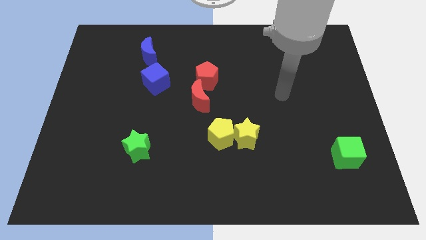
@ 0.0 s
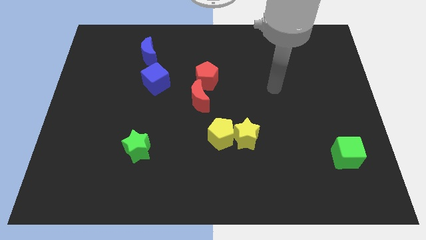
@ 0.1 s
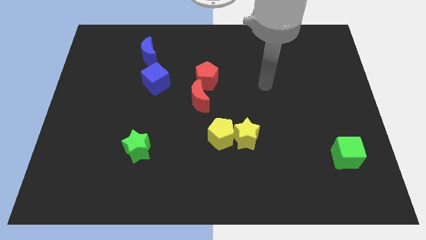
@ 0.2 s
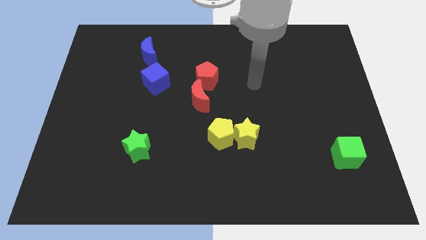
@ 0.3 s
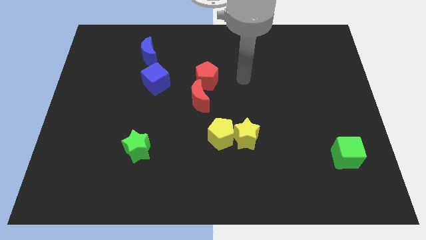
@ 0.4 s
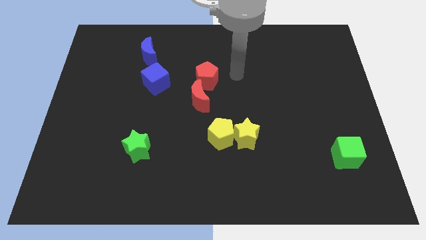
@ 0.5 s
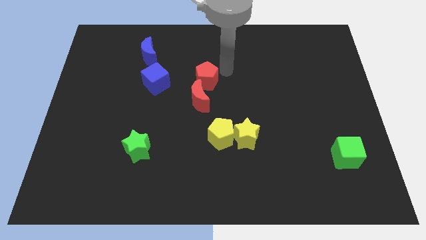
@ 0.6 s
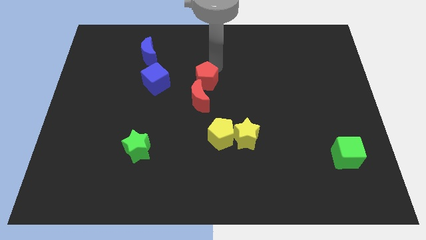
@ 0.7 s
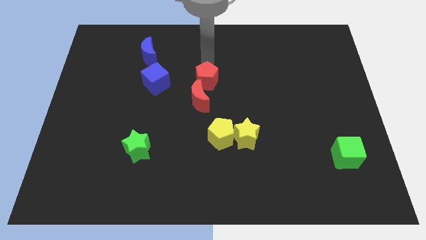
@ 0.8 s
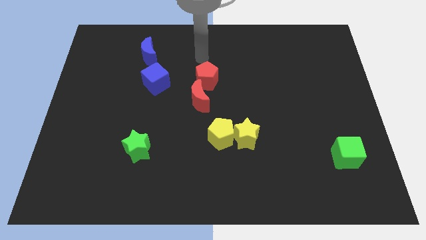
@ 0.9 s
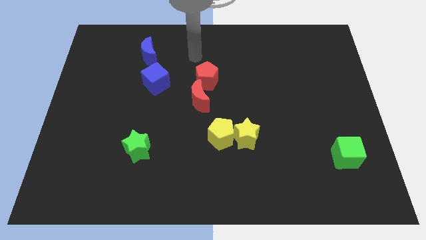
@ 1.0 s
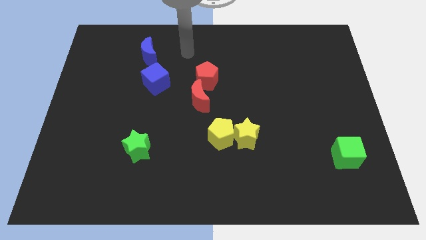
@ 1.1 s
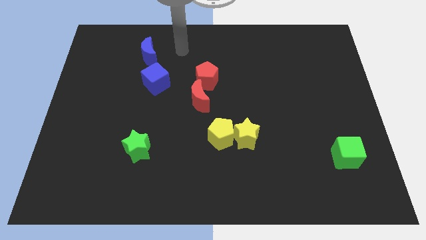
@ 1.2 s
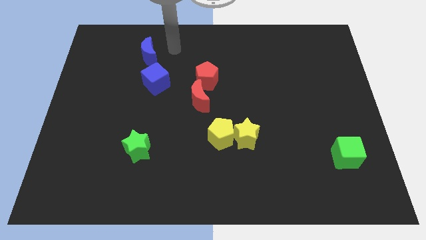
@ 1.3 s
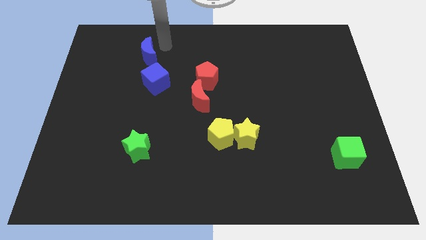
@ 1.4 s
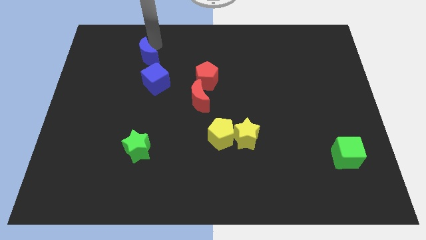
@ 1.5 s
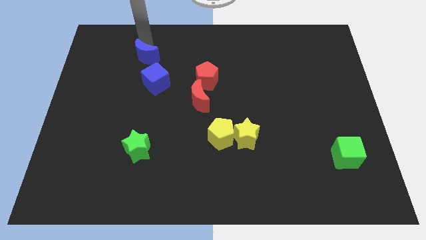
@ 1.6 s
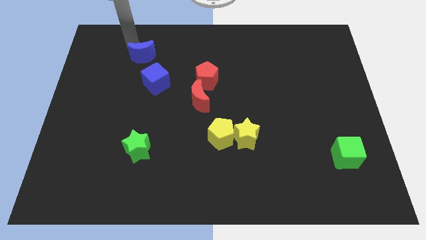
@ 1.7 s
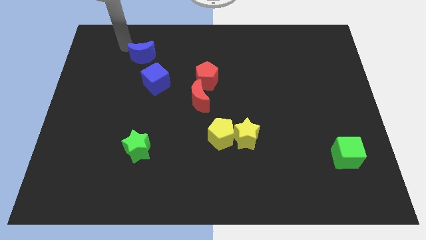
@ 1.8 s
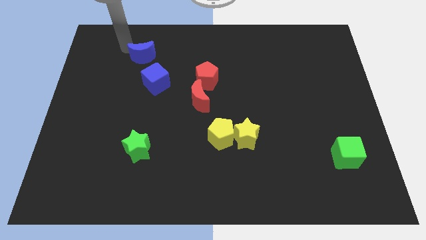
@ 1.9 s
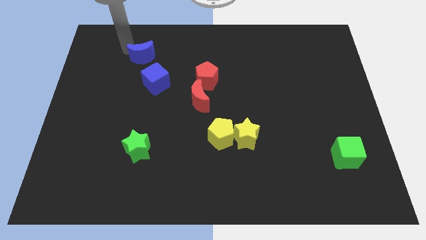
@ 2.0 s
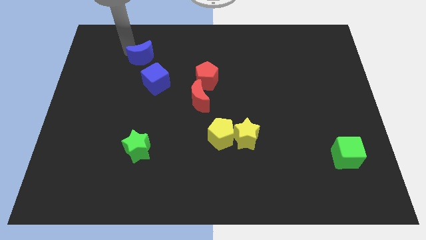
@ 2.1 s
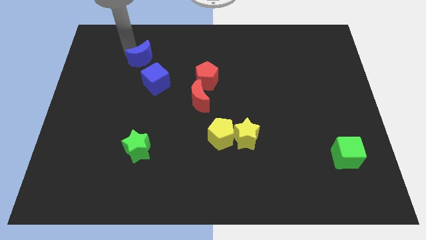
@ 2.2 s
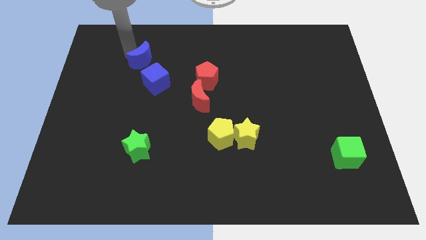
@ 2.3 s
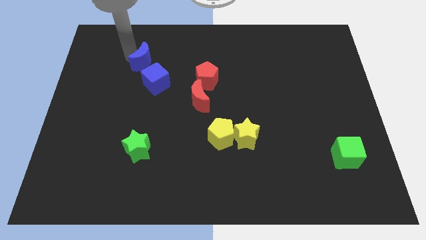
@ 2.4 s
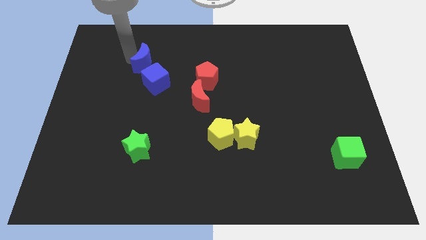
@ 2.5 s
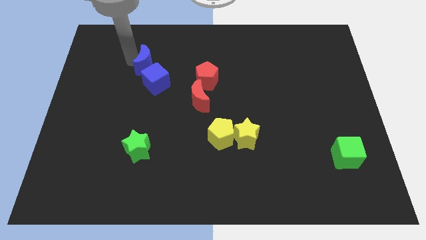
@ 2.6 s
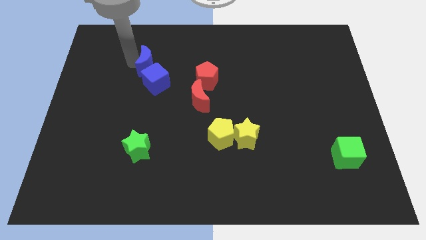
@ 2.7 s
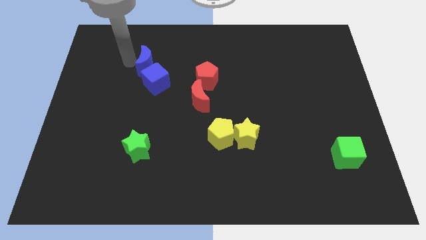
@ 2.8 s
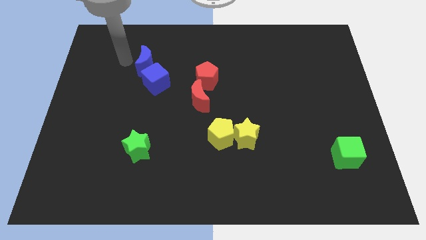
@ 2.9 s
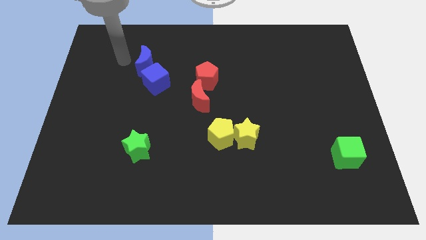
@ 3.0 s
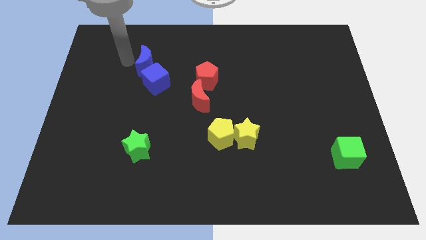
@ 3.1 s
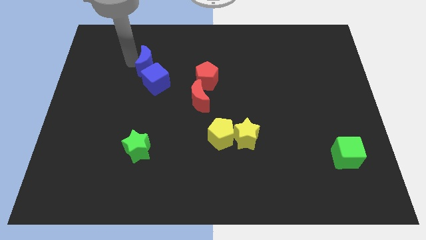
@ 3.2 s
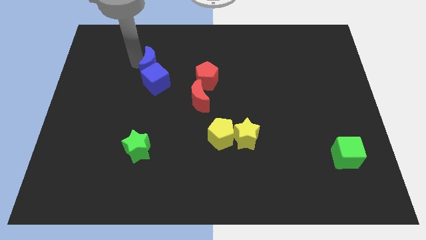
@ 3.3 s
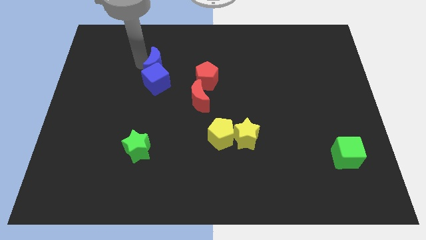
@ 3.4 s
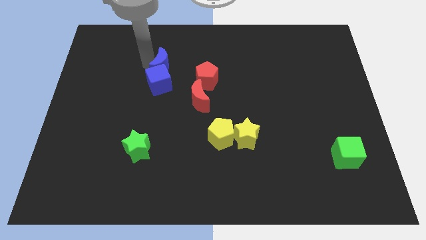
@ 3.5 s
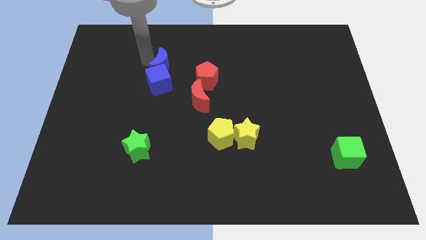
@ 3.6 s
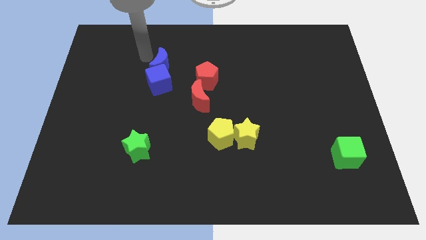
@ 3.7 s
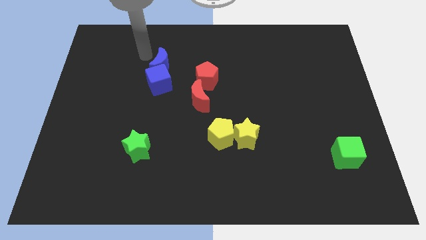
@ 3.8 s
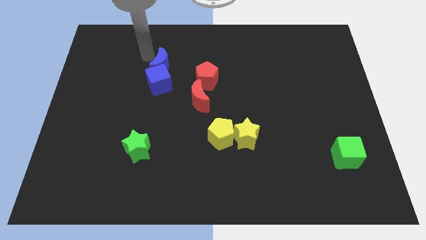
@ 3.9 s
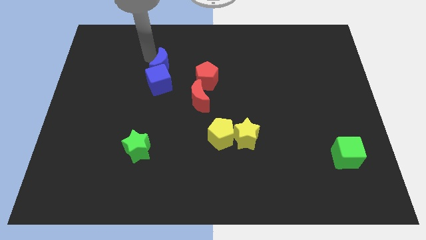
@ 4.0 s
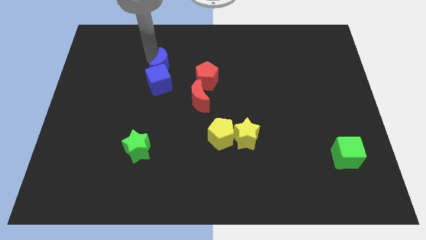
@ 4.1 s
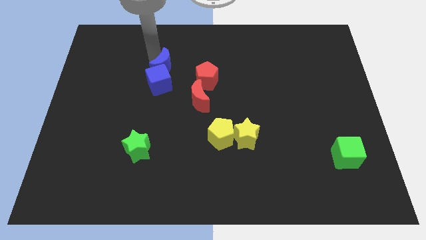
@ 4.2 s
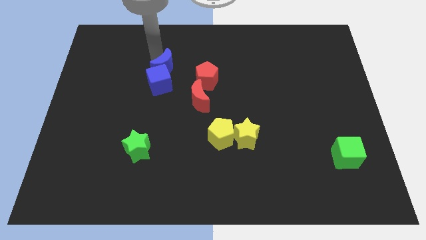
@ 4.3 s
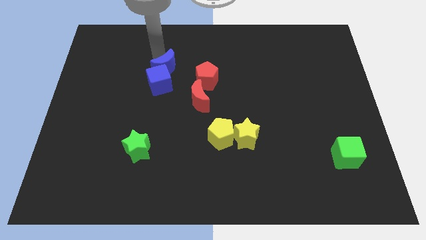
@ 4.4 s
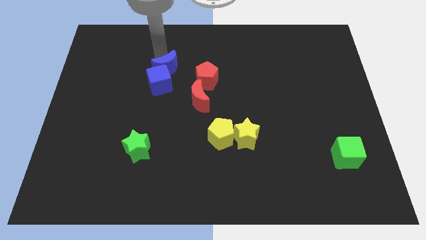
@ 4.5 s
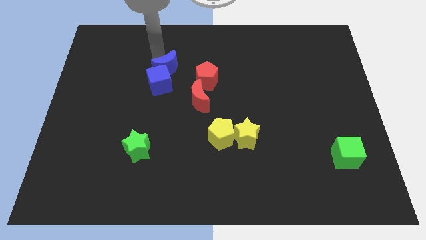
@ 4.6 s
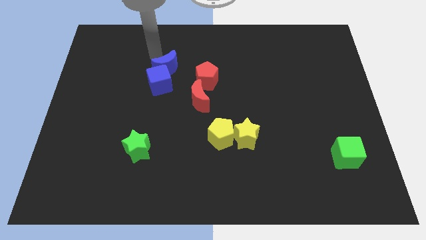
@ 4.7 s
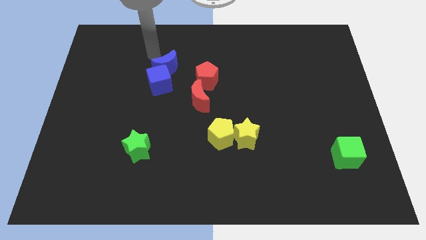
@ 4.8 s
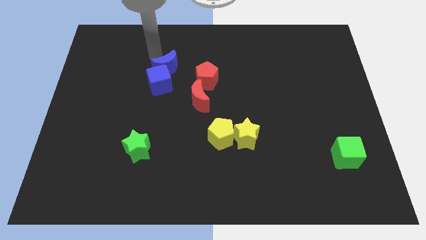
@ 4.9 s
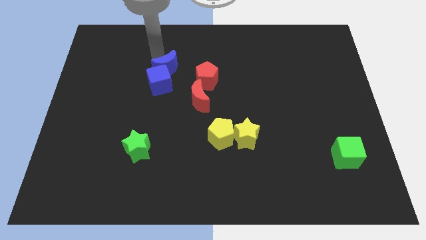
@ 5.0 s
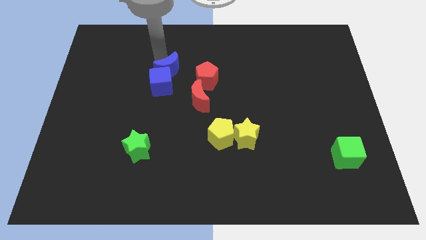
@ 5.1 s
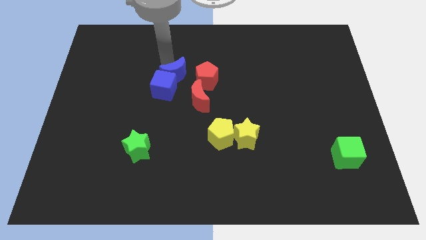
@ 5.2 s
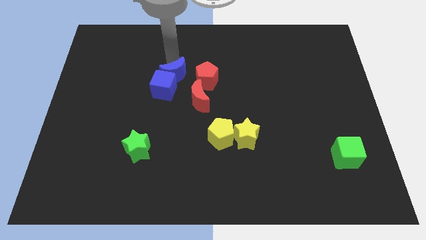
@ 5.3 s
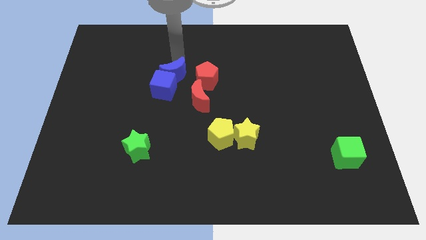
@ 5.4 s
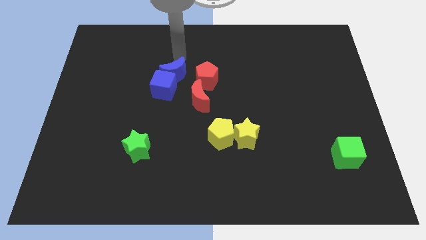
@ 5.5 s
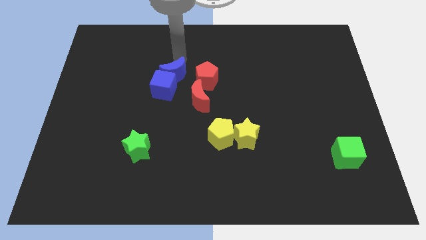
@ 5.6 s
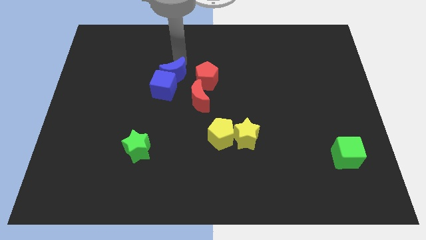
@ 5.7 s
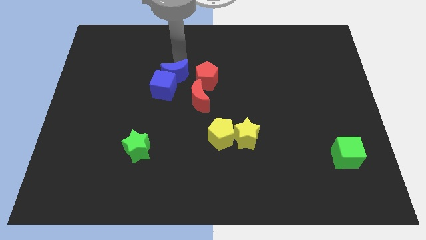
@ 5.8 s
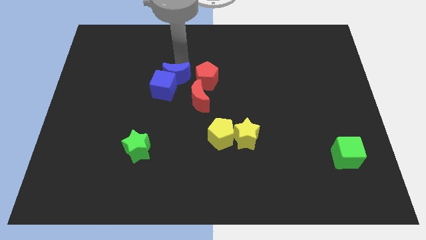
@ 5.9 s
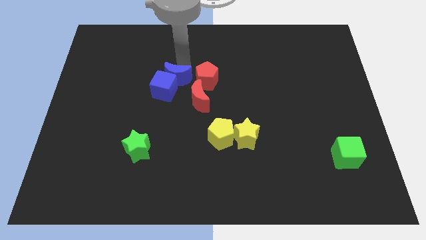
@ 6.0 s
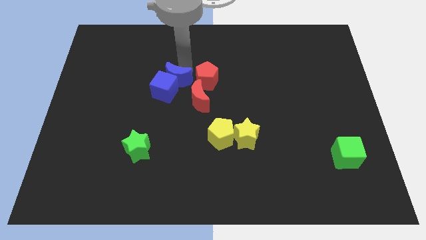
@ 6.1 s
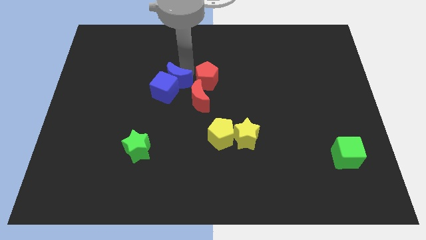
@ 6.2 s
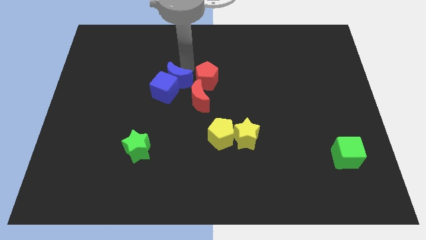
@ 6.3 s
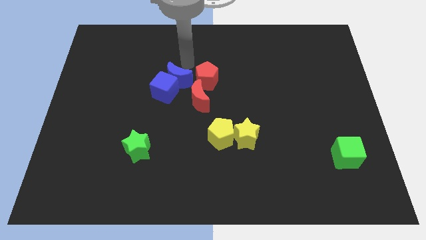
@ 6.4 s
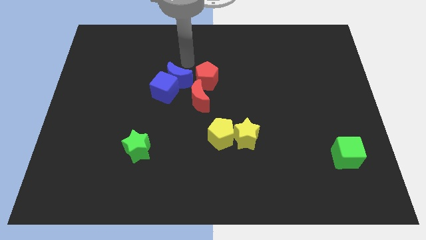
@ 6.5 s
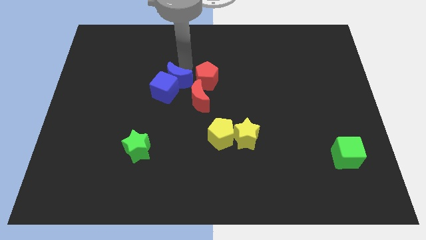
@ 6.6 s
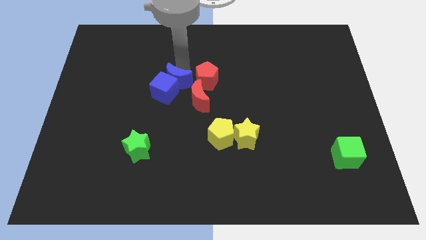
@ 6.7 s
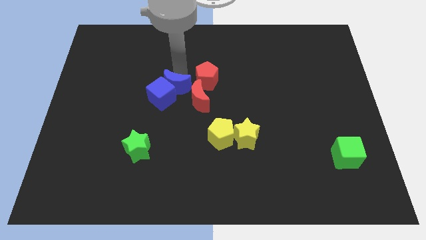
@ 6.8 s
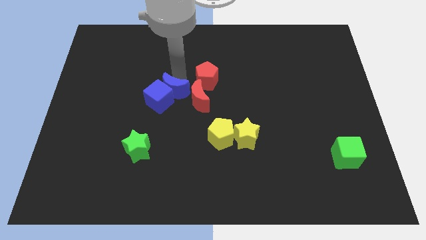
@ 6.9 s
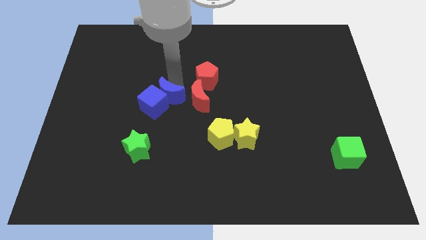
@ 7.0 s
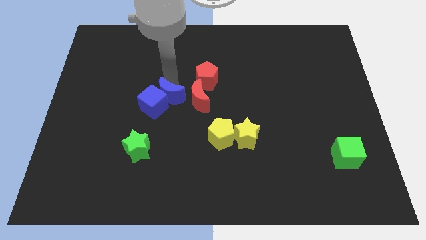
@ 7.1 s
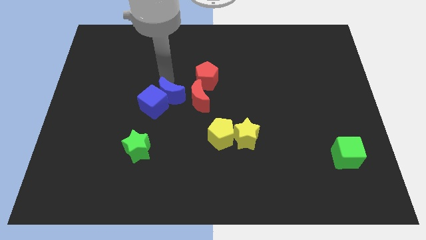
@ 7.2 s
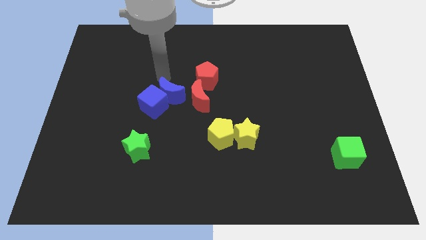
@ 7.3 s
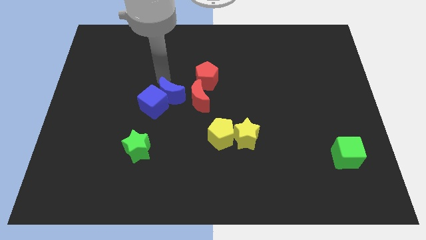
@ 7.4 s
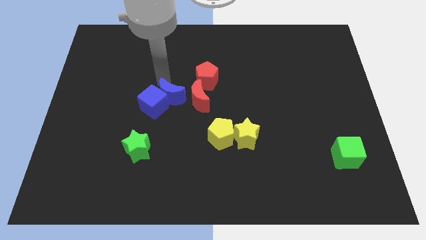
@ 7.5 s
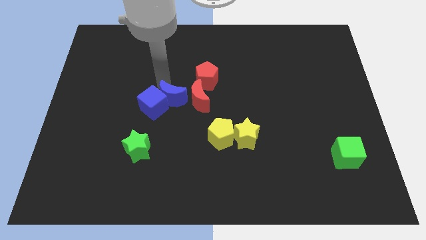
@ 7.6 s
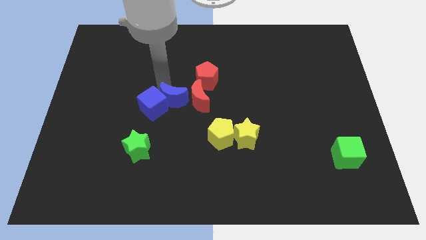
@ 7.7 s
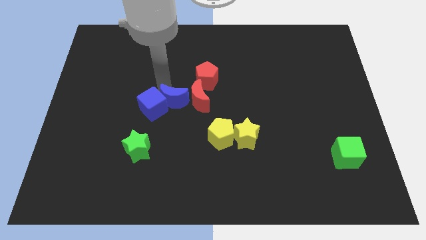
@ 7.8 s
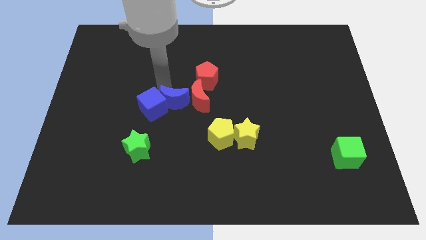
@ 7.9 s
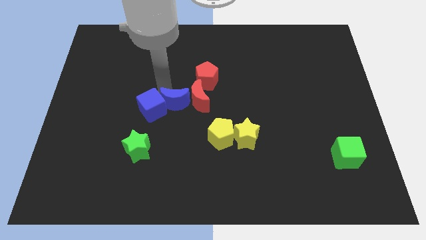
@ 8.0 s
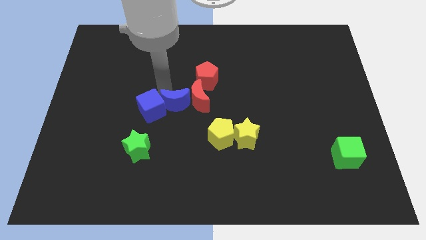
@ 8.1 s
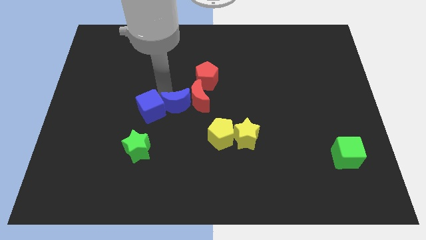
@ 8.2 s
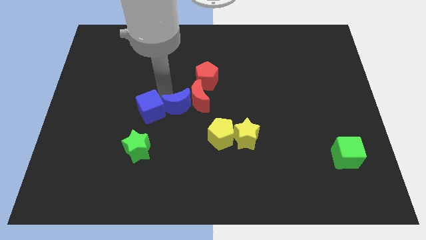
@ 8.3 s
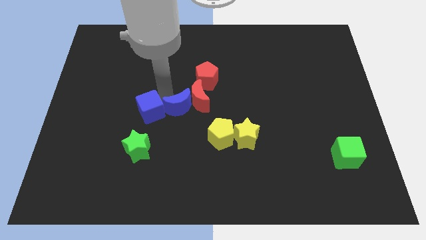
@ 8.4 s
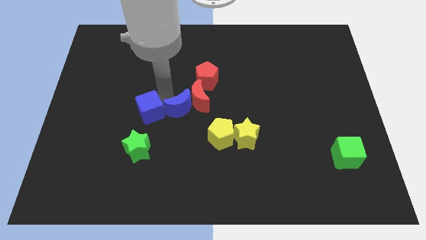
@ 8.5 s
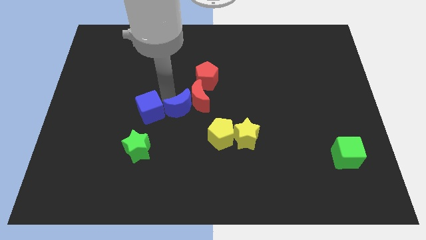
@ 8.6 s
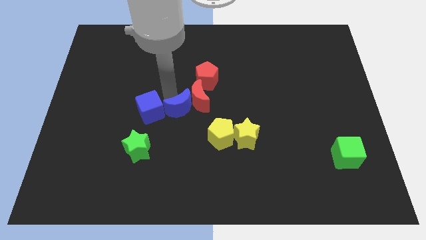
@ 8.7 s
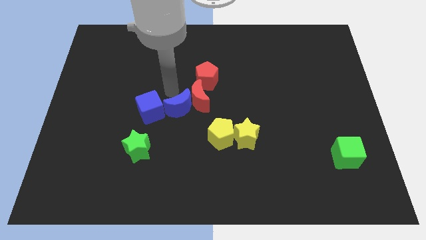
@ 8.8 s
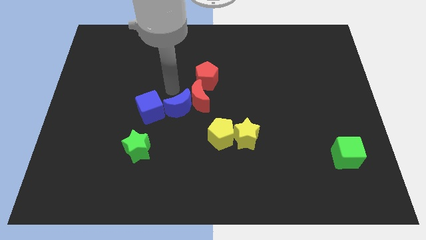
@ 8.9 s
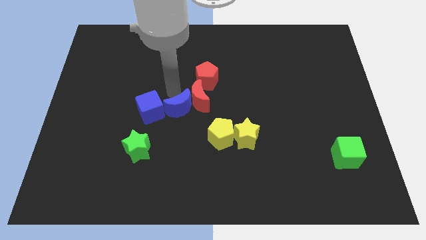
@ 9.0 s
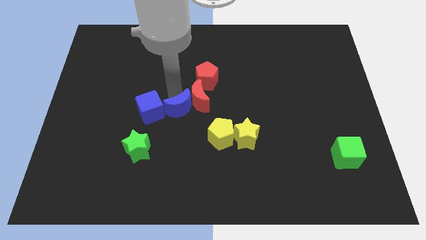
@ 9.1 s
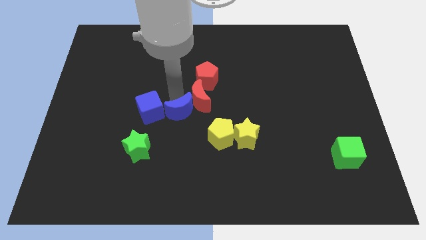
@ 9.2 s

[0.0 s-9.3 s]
slide the blue moon below the red moon
